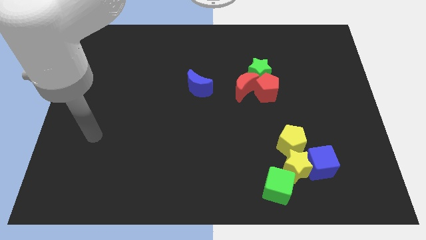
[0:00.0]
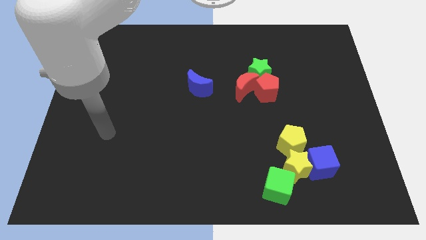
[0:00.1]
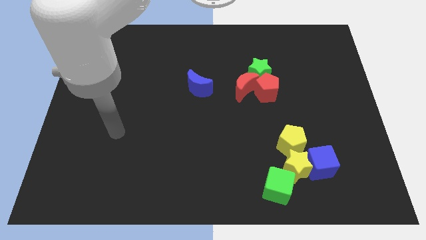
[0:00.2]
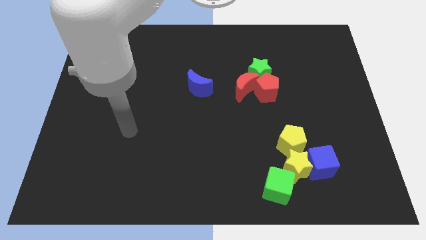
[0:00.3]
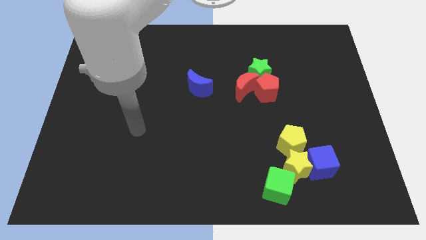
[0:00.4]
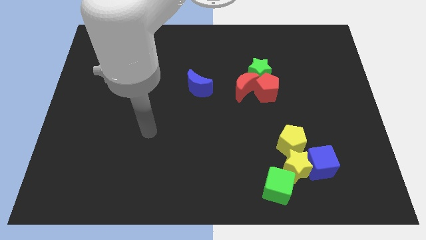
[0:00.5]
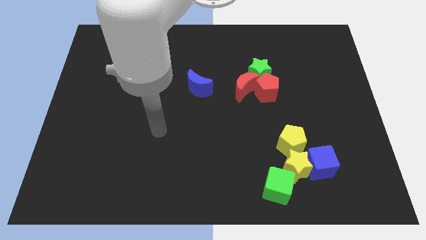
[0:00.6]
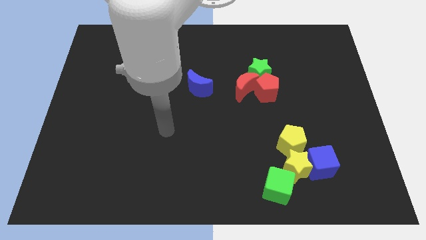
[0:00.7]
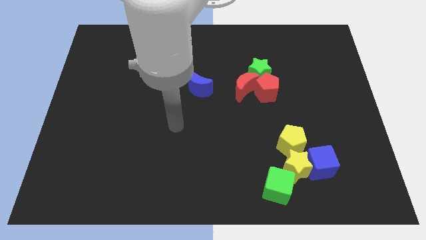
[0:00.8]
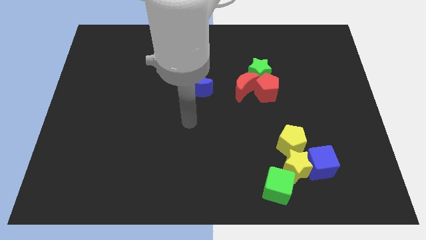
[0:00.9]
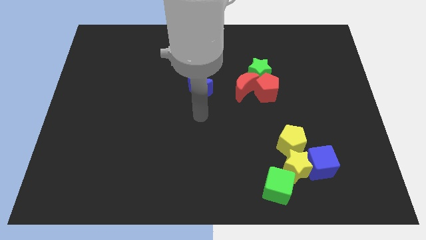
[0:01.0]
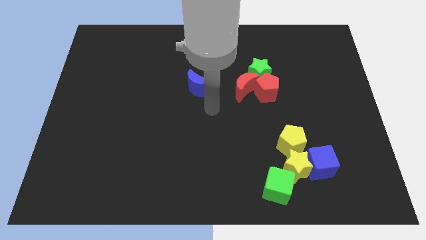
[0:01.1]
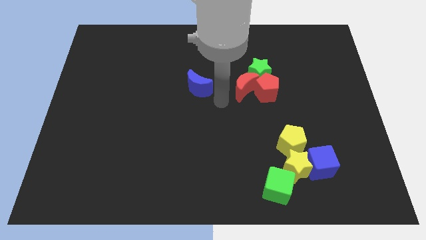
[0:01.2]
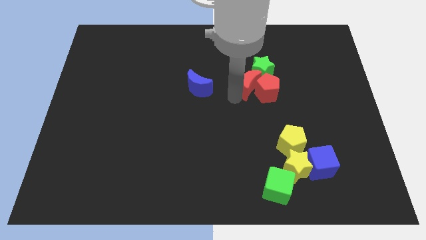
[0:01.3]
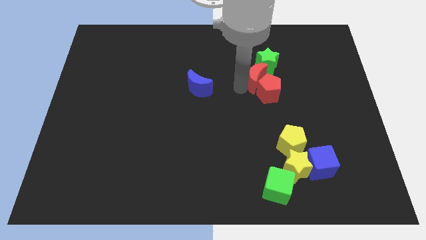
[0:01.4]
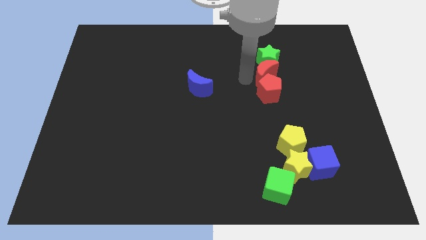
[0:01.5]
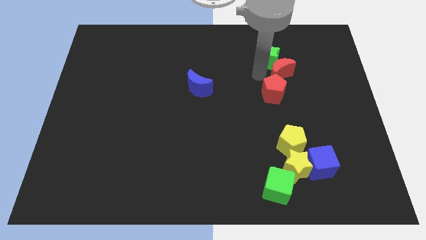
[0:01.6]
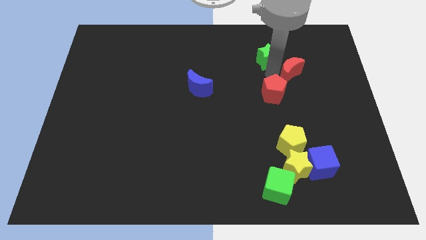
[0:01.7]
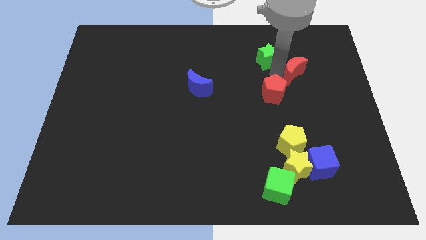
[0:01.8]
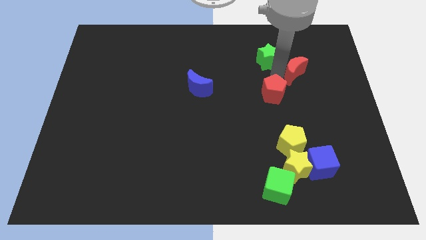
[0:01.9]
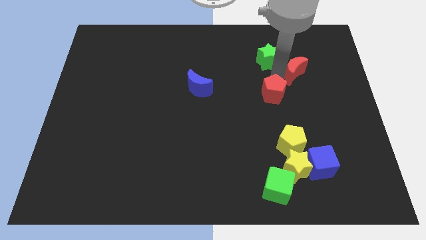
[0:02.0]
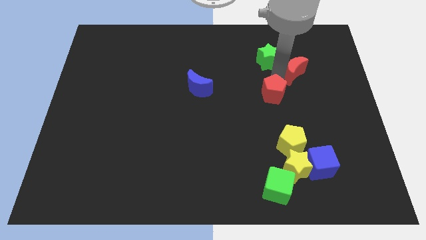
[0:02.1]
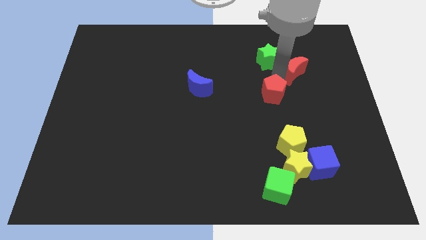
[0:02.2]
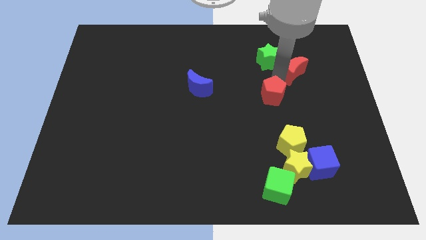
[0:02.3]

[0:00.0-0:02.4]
pull the red pentagon apart from the red moon and green star

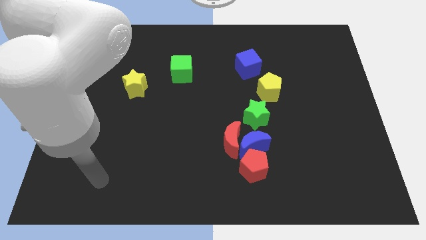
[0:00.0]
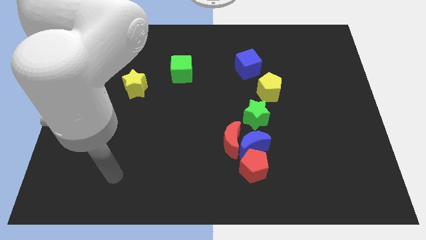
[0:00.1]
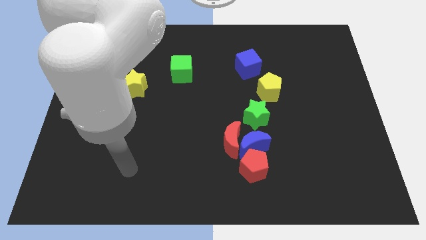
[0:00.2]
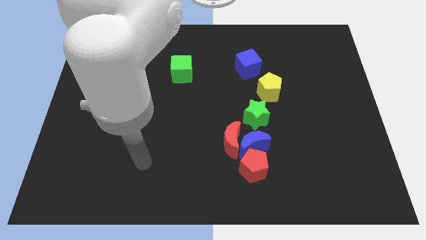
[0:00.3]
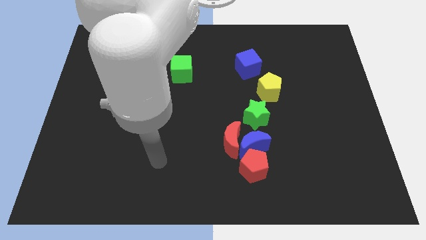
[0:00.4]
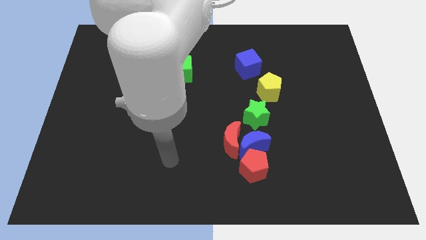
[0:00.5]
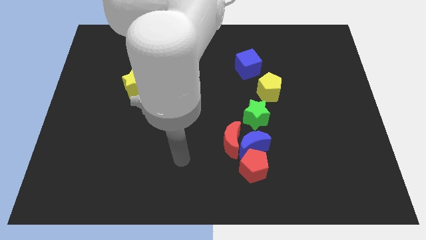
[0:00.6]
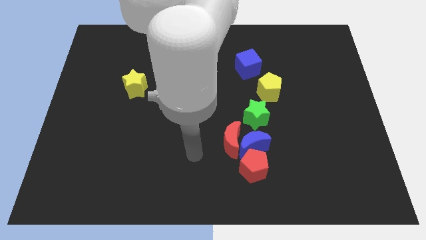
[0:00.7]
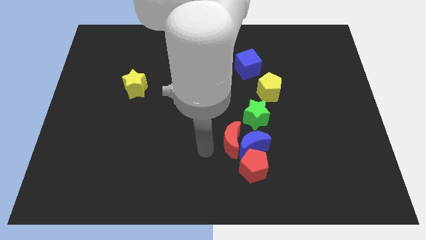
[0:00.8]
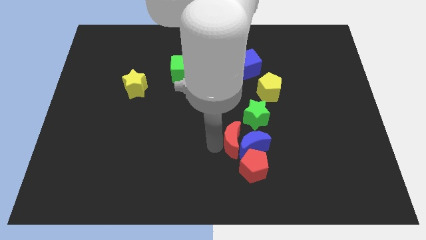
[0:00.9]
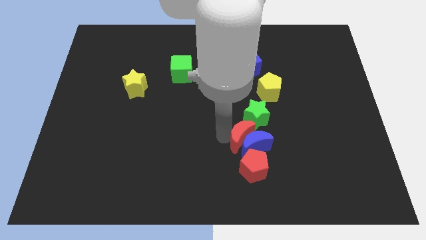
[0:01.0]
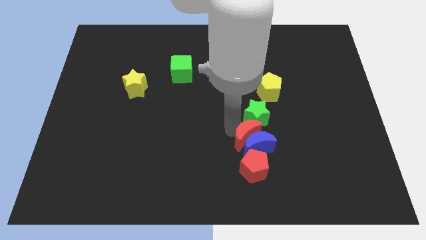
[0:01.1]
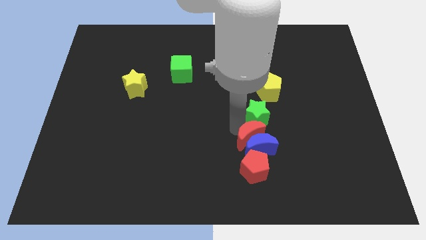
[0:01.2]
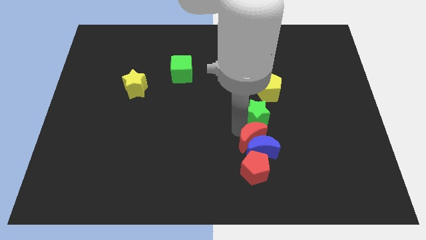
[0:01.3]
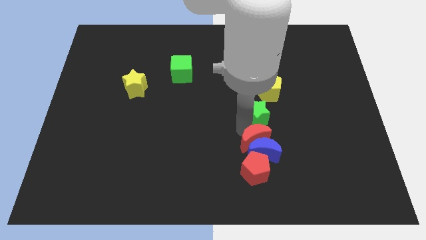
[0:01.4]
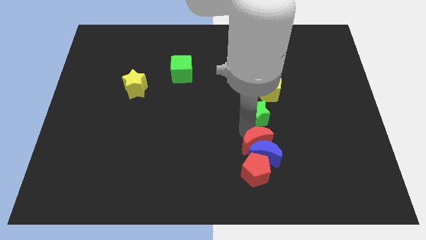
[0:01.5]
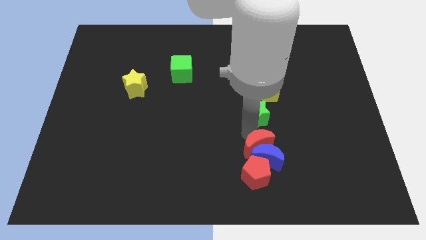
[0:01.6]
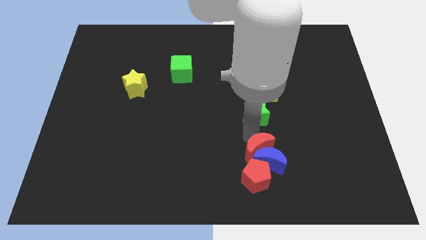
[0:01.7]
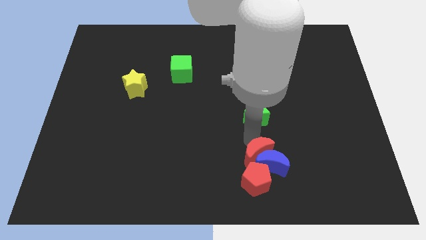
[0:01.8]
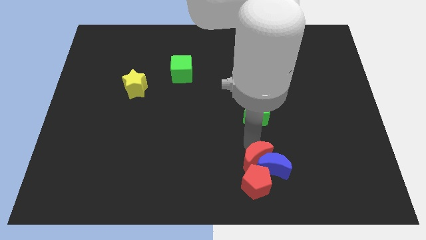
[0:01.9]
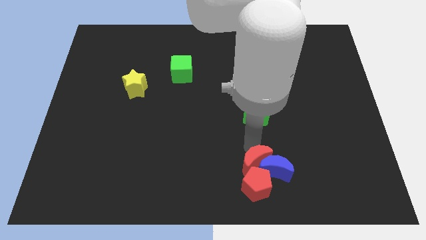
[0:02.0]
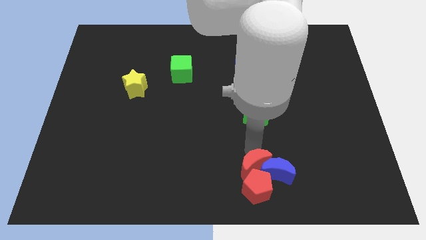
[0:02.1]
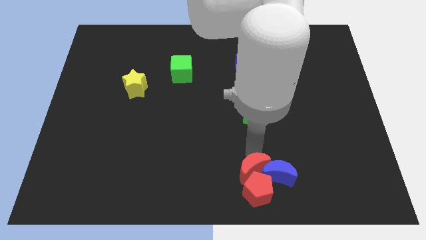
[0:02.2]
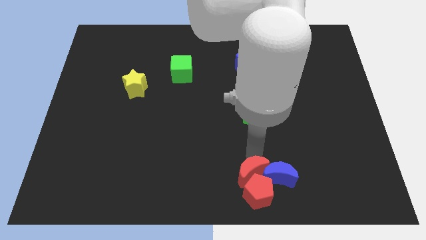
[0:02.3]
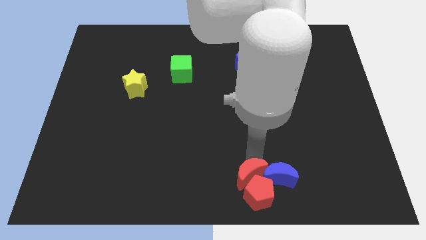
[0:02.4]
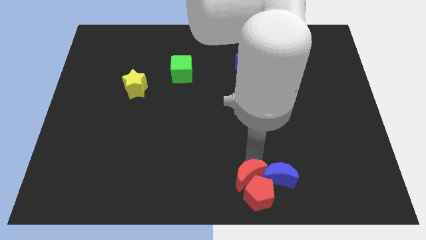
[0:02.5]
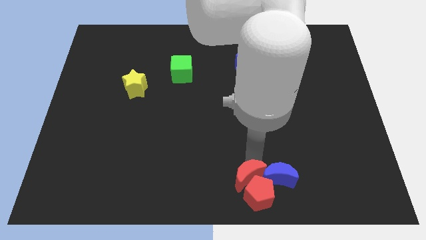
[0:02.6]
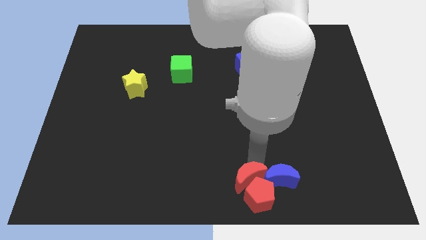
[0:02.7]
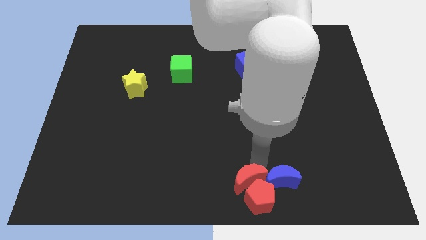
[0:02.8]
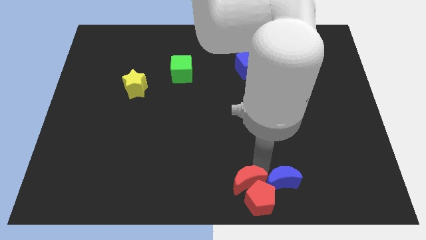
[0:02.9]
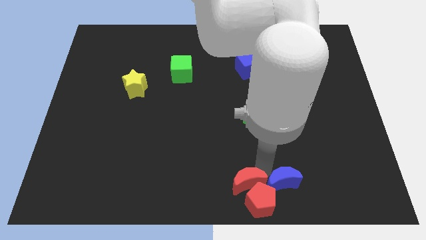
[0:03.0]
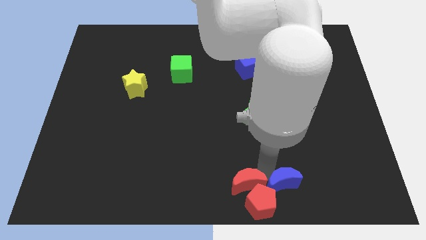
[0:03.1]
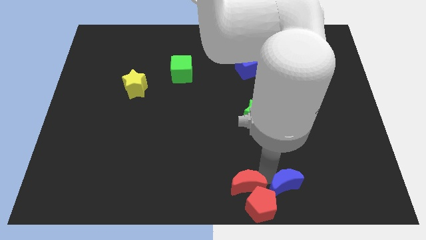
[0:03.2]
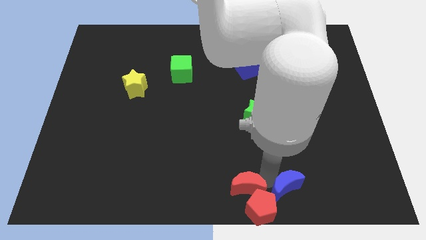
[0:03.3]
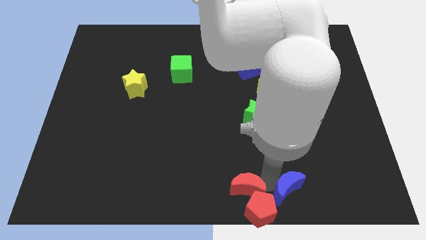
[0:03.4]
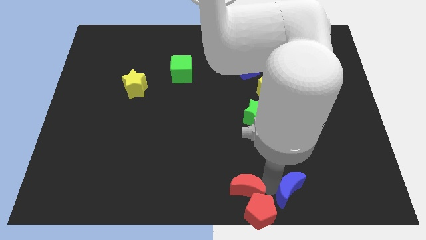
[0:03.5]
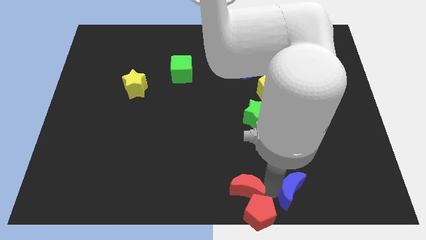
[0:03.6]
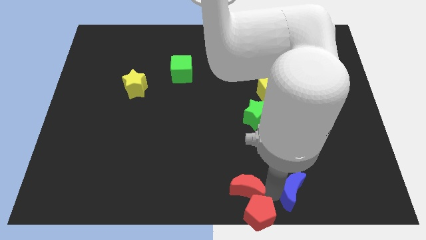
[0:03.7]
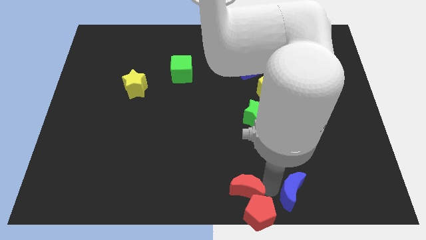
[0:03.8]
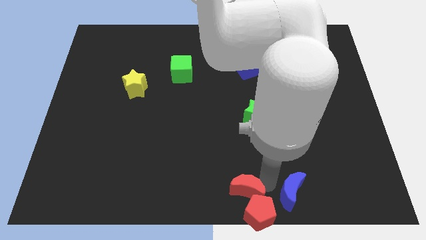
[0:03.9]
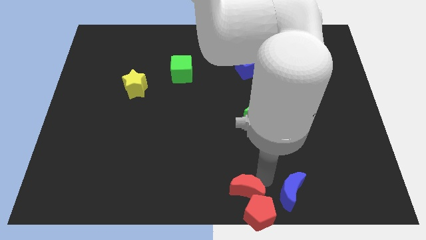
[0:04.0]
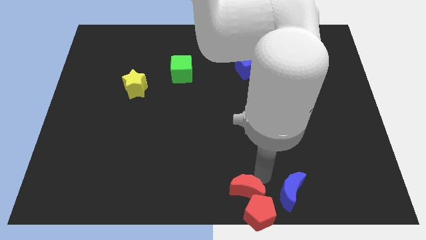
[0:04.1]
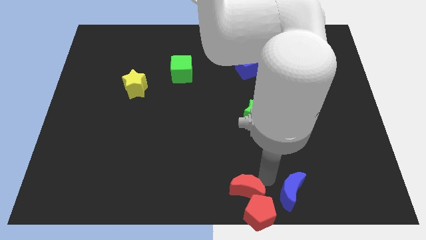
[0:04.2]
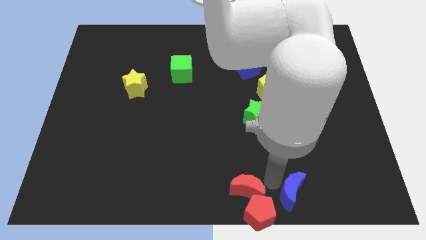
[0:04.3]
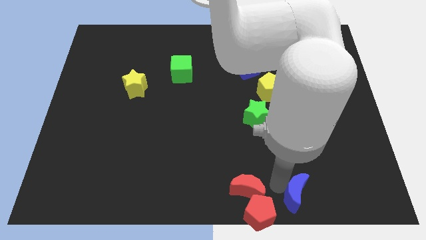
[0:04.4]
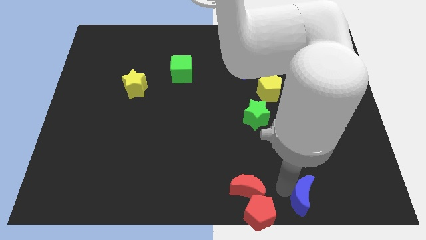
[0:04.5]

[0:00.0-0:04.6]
separate the blue moon from the red moon, red pentagon, and green star

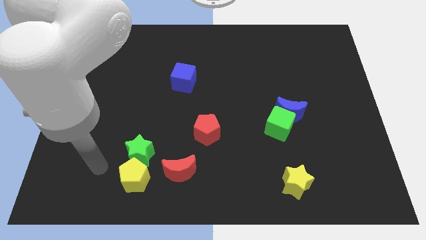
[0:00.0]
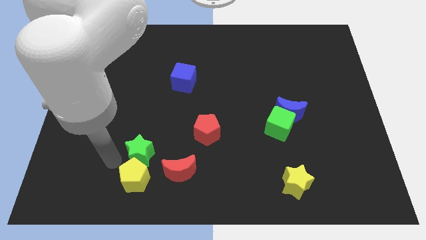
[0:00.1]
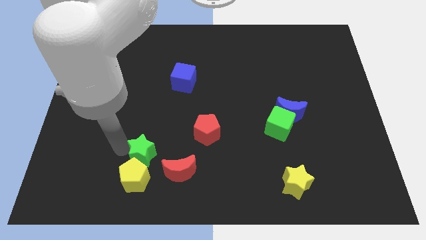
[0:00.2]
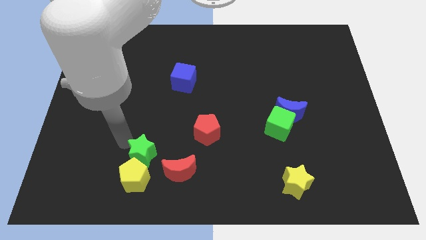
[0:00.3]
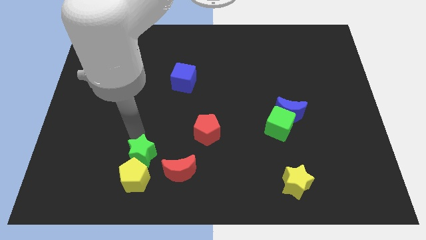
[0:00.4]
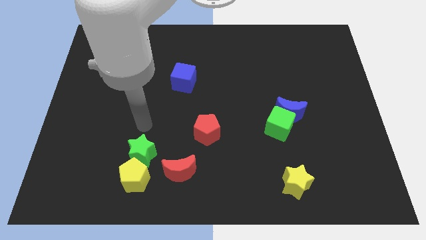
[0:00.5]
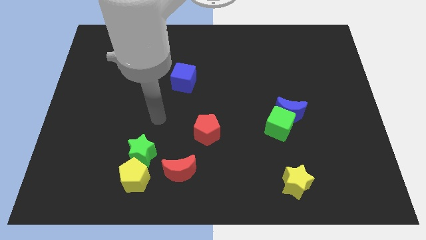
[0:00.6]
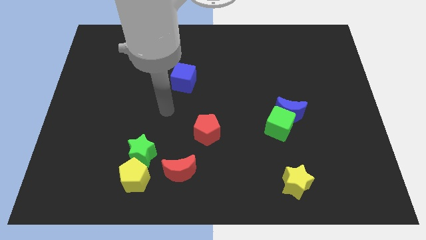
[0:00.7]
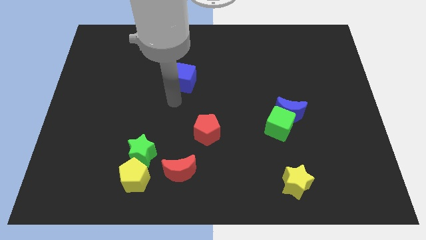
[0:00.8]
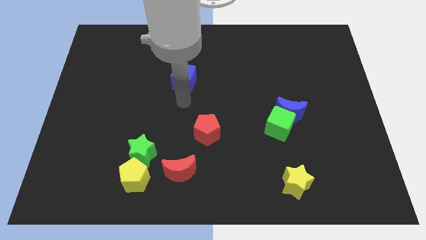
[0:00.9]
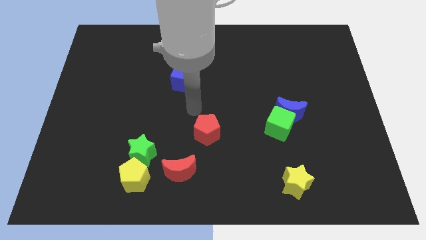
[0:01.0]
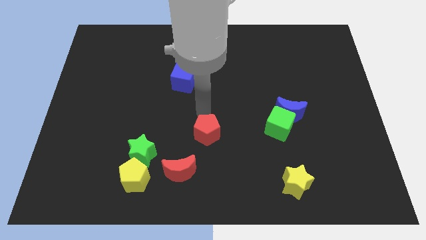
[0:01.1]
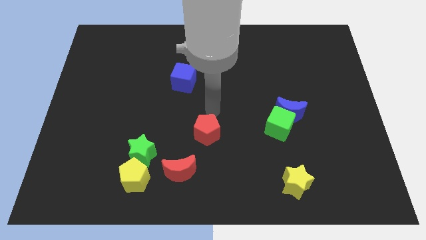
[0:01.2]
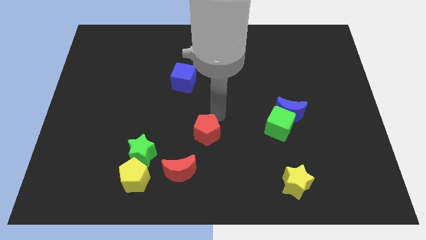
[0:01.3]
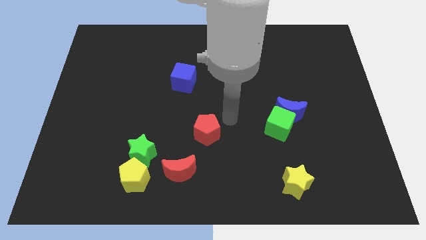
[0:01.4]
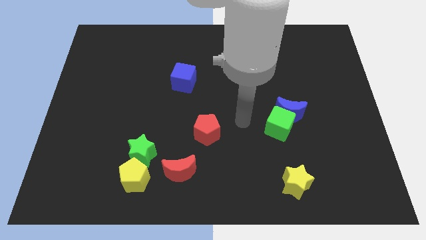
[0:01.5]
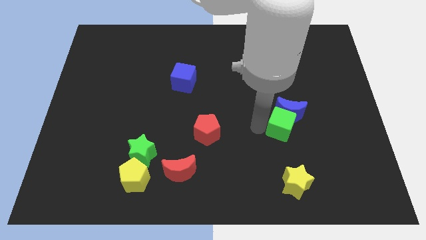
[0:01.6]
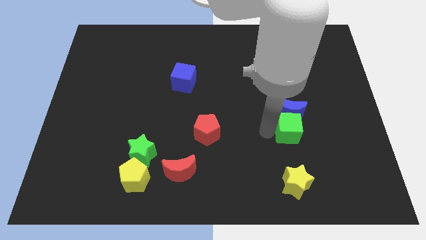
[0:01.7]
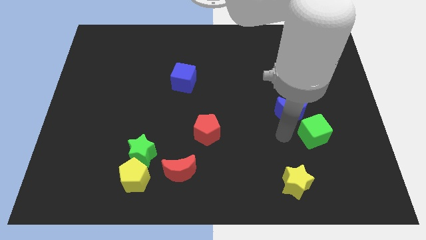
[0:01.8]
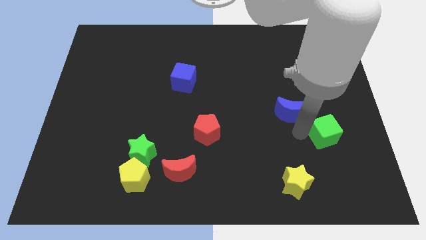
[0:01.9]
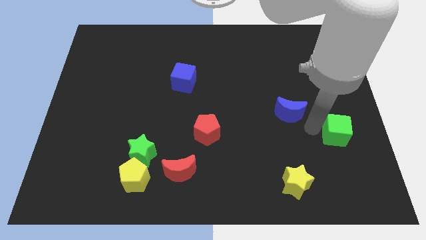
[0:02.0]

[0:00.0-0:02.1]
pull the blue moon apart from the green cube
